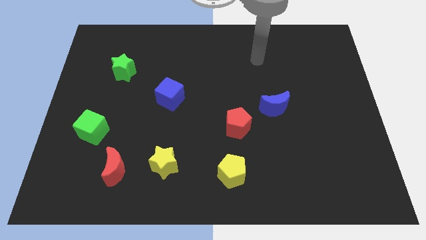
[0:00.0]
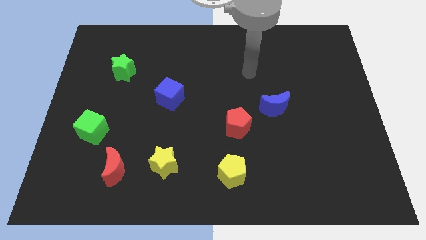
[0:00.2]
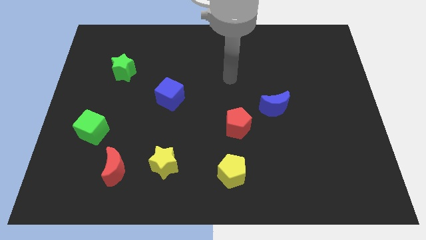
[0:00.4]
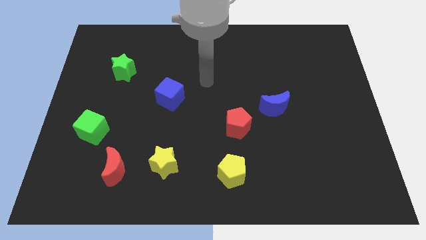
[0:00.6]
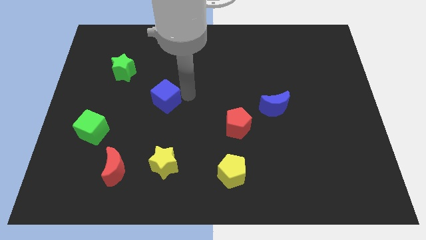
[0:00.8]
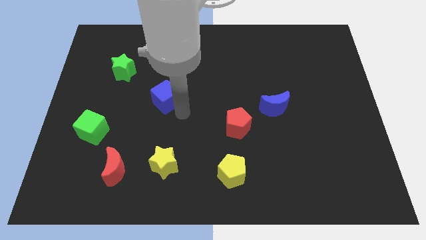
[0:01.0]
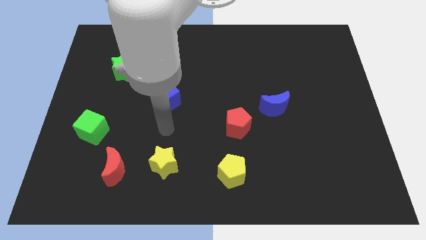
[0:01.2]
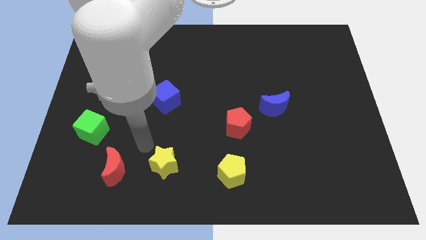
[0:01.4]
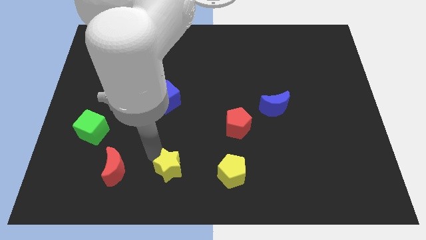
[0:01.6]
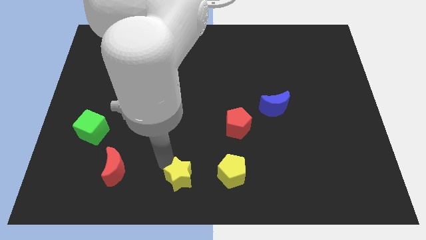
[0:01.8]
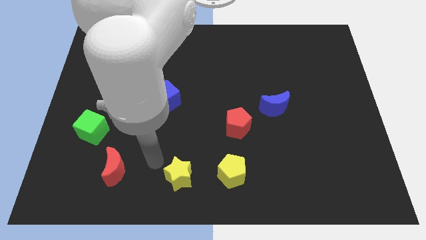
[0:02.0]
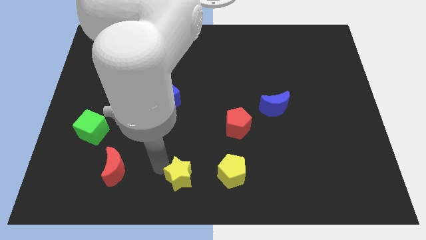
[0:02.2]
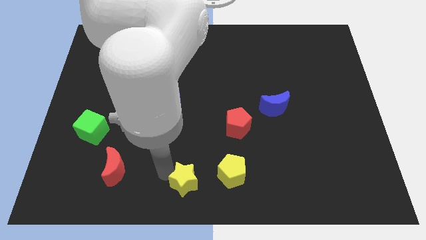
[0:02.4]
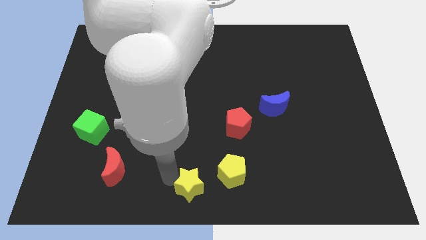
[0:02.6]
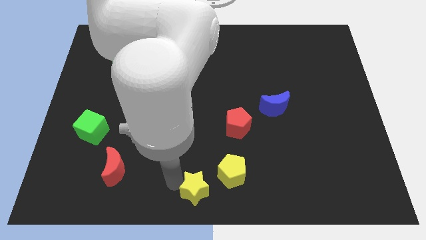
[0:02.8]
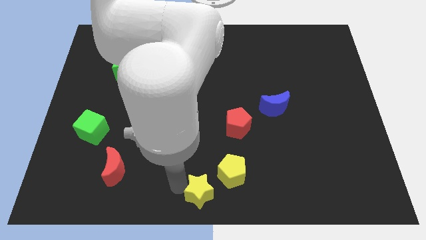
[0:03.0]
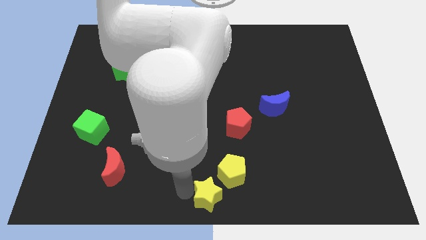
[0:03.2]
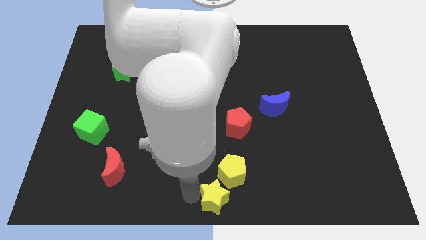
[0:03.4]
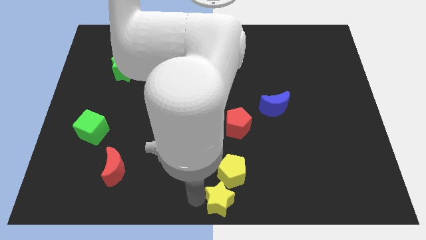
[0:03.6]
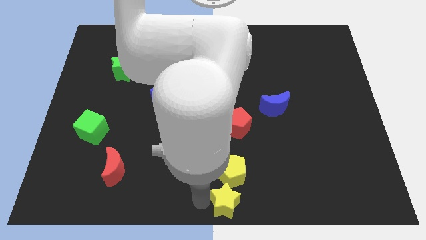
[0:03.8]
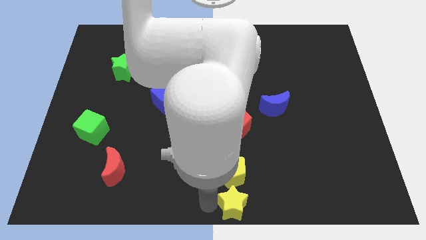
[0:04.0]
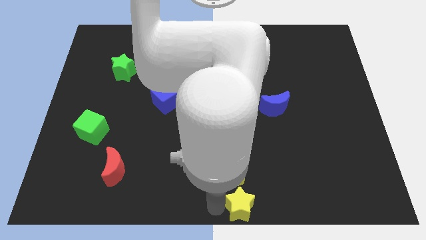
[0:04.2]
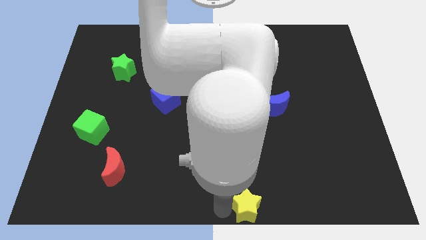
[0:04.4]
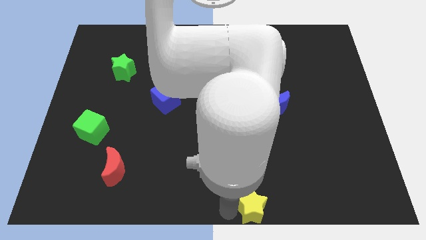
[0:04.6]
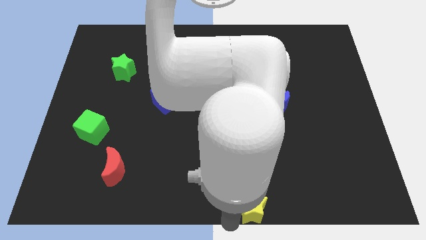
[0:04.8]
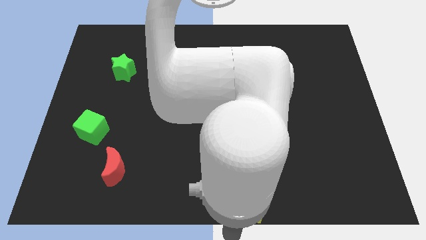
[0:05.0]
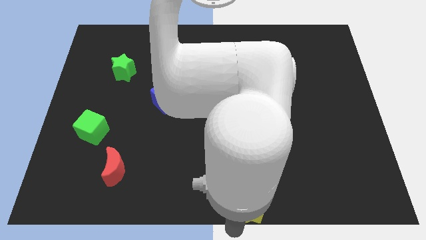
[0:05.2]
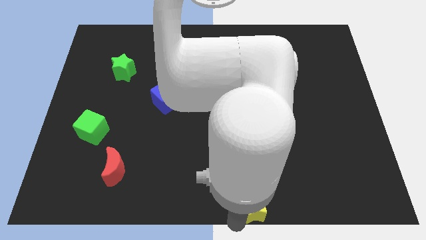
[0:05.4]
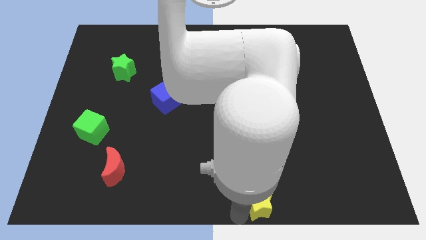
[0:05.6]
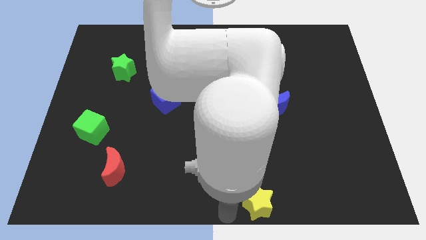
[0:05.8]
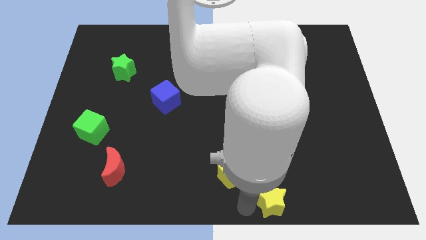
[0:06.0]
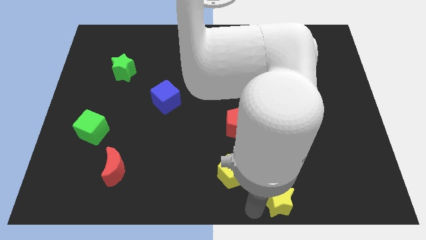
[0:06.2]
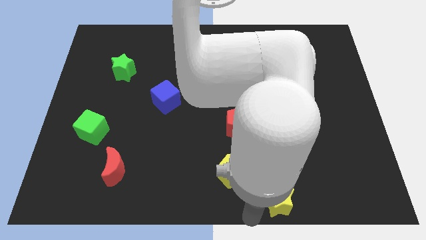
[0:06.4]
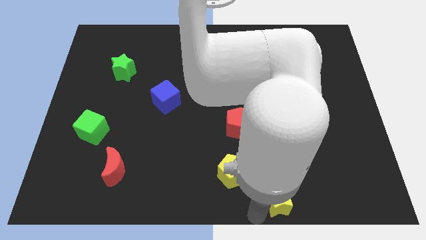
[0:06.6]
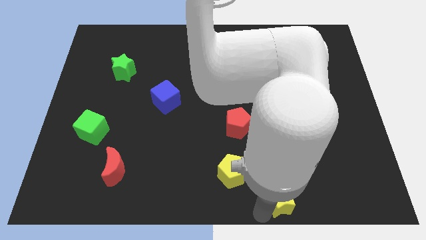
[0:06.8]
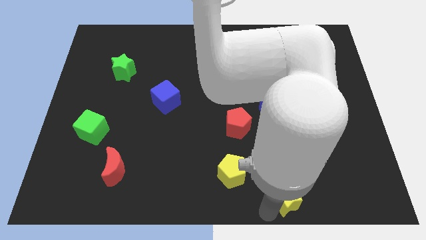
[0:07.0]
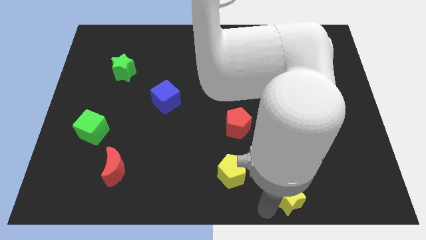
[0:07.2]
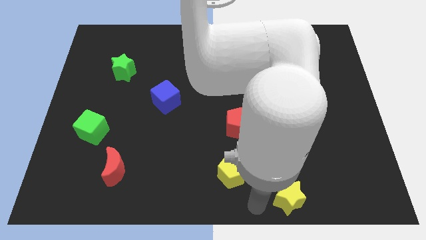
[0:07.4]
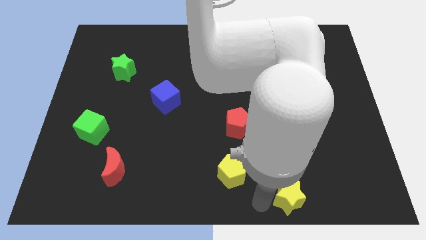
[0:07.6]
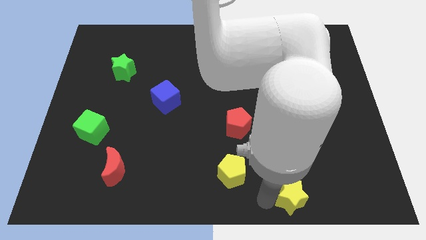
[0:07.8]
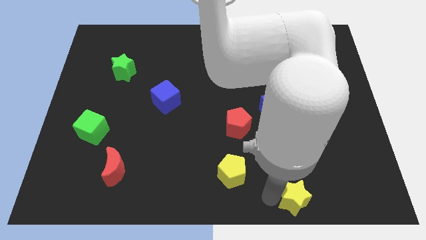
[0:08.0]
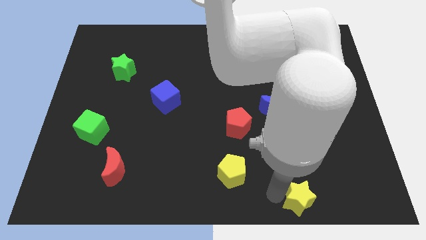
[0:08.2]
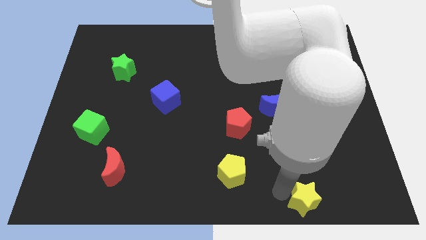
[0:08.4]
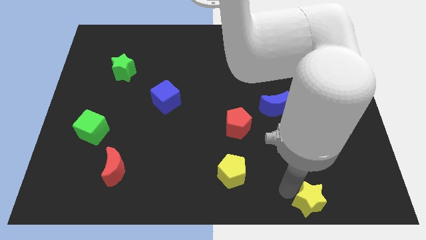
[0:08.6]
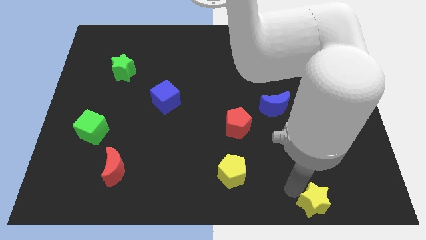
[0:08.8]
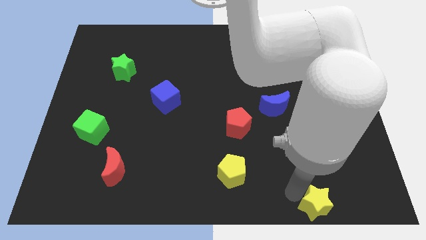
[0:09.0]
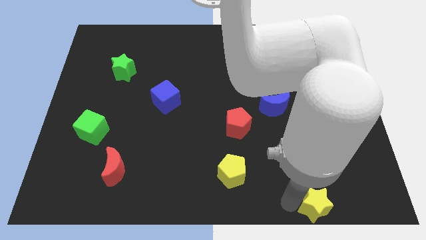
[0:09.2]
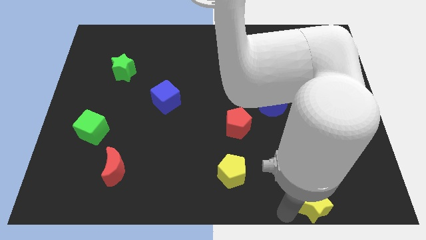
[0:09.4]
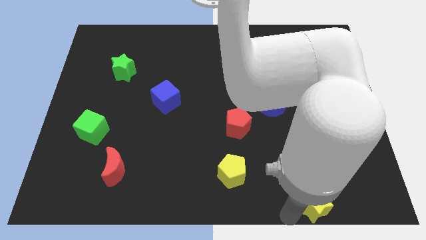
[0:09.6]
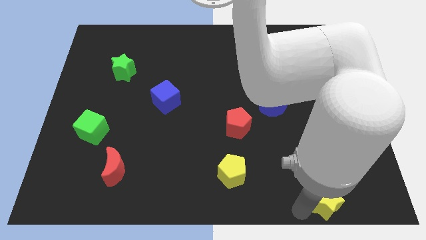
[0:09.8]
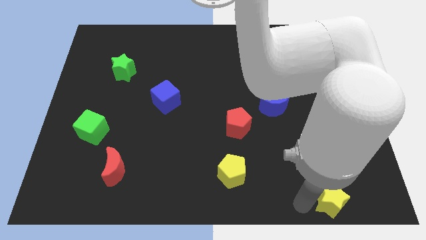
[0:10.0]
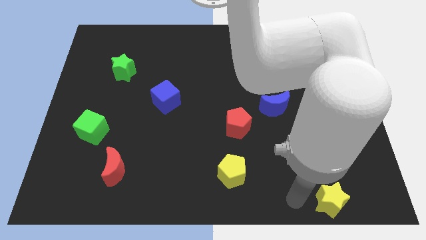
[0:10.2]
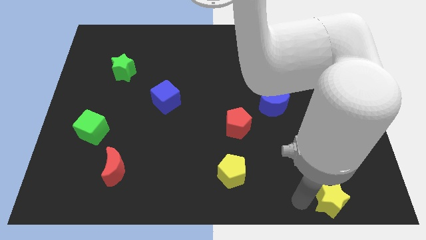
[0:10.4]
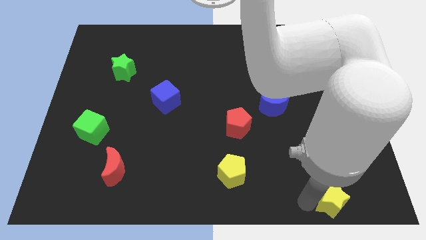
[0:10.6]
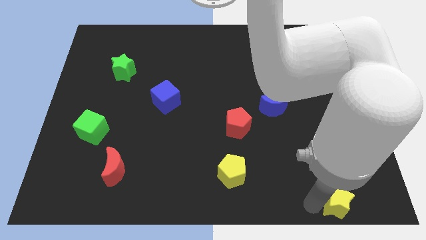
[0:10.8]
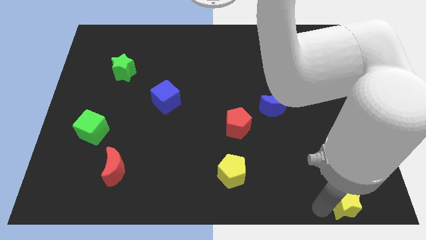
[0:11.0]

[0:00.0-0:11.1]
move the yellow star to the bottom right

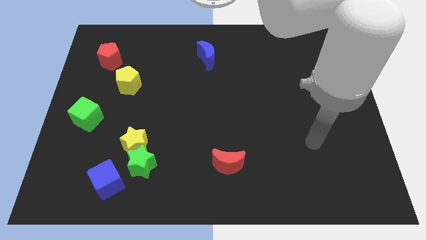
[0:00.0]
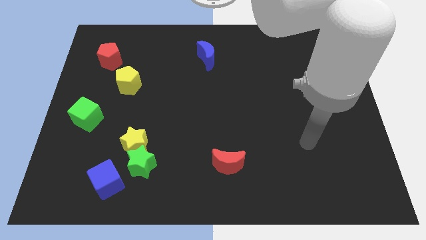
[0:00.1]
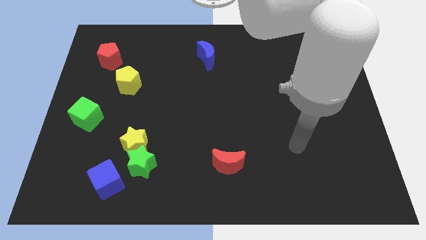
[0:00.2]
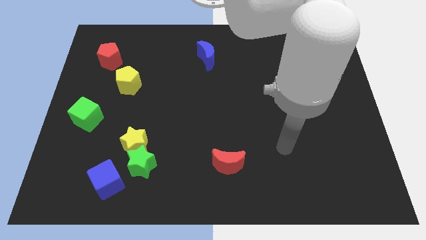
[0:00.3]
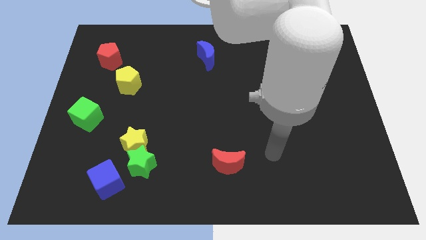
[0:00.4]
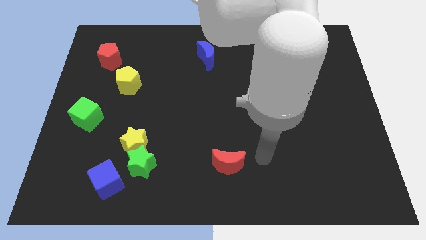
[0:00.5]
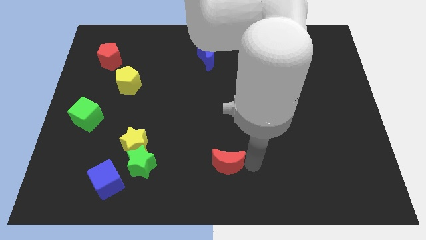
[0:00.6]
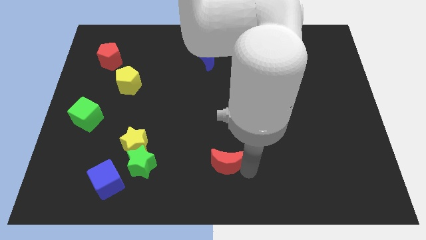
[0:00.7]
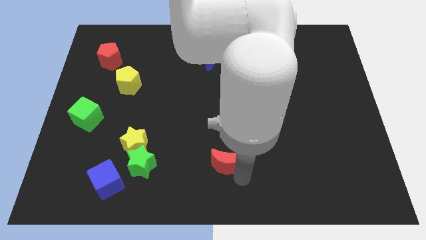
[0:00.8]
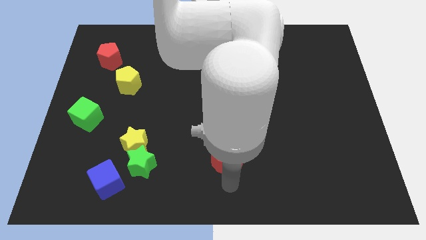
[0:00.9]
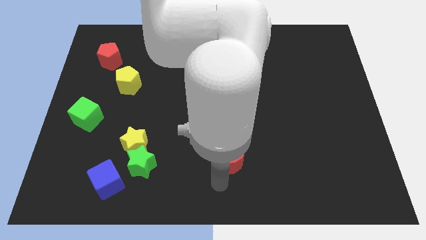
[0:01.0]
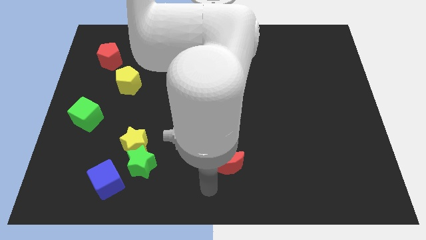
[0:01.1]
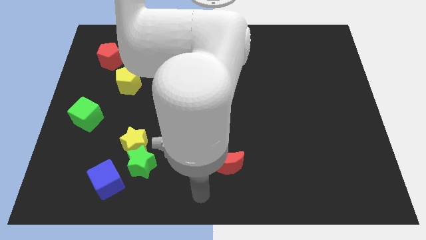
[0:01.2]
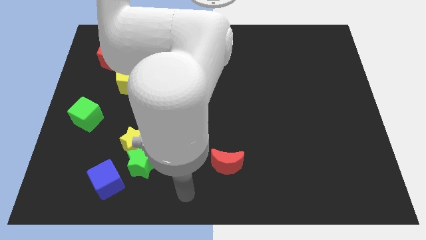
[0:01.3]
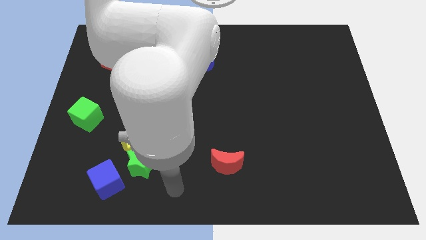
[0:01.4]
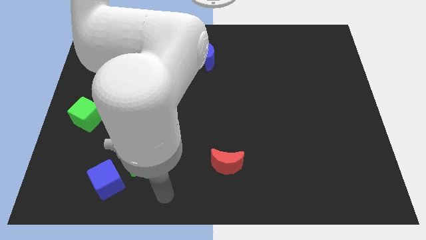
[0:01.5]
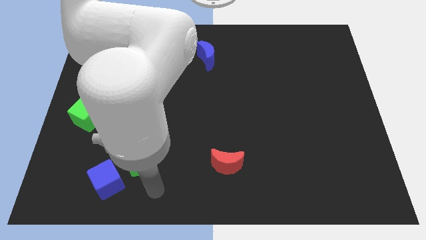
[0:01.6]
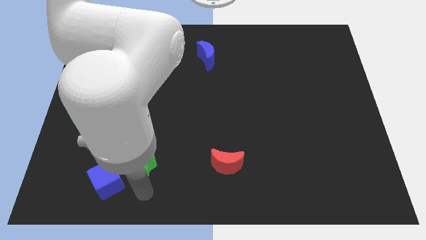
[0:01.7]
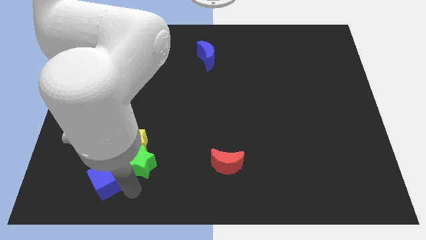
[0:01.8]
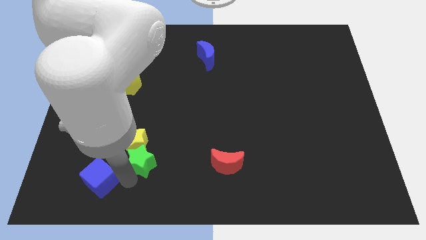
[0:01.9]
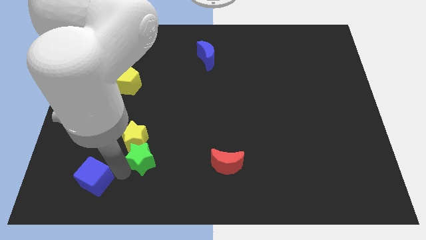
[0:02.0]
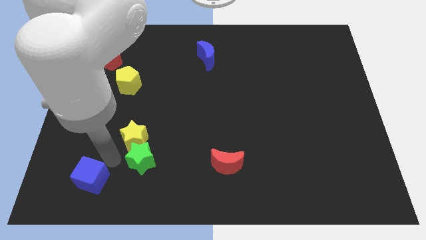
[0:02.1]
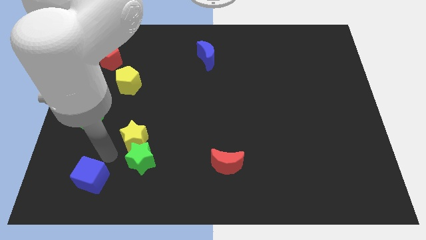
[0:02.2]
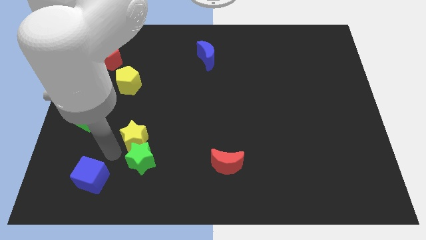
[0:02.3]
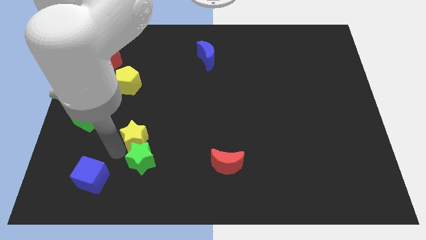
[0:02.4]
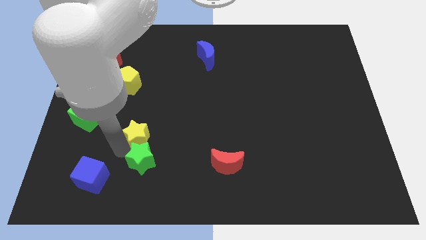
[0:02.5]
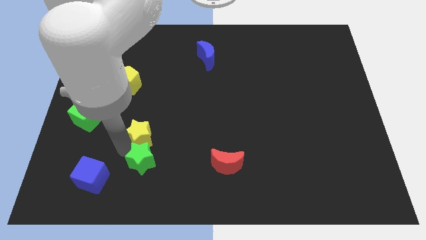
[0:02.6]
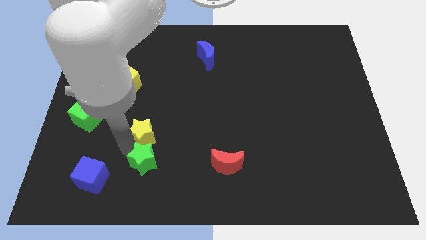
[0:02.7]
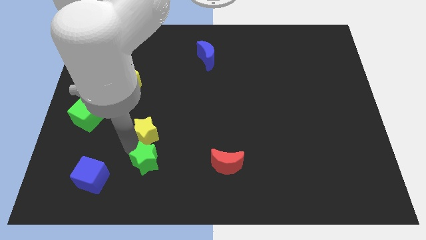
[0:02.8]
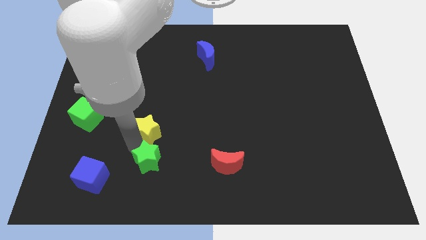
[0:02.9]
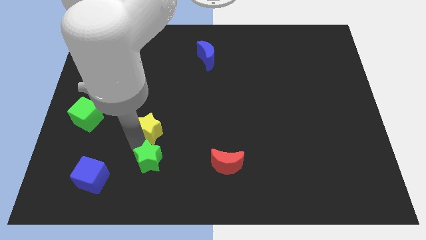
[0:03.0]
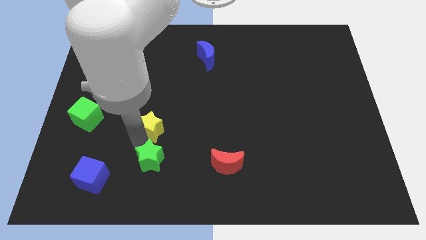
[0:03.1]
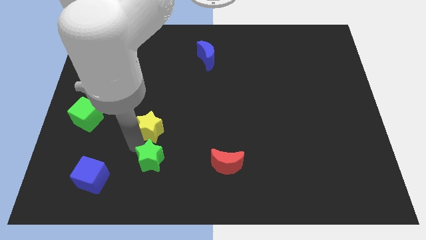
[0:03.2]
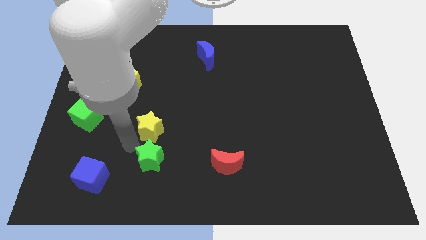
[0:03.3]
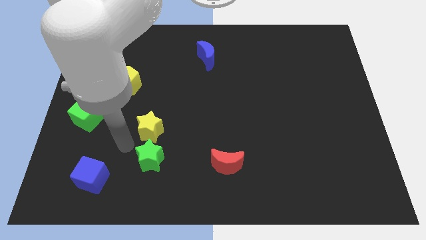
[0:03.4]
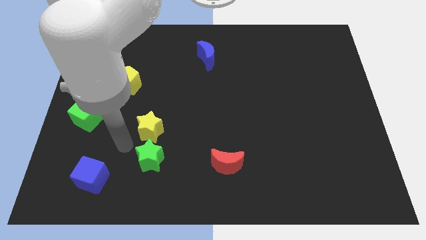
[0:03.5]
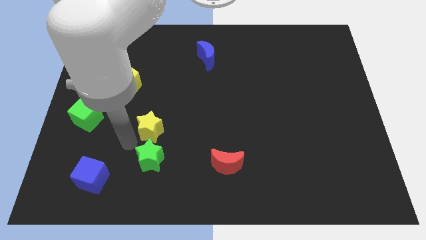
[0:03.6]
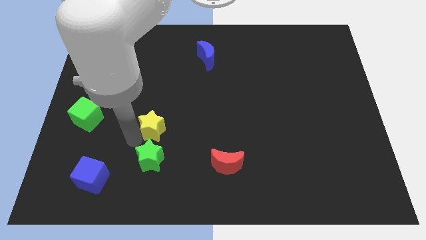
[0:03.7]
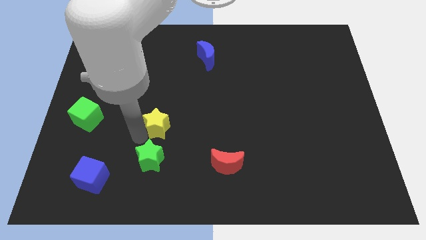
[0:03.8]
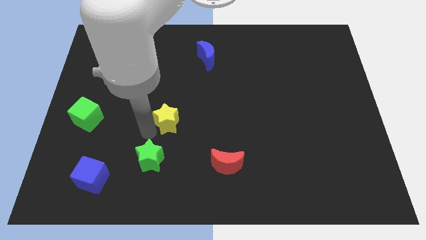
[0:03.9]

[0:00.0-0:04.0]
move the yellow star to the middle
